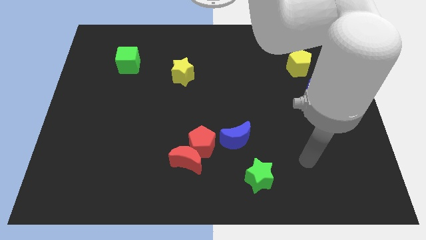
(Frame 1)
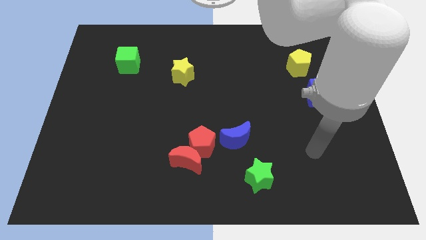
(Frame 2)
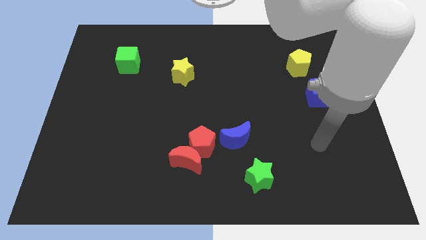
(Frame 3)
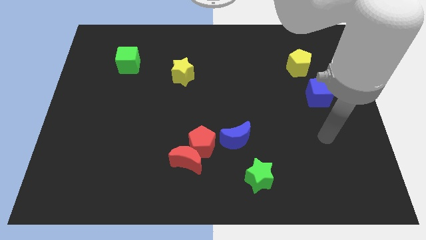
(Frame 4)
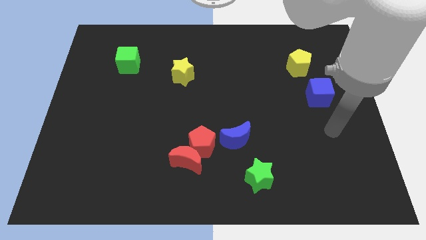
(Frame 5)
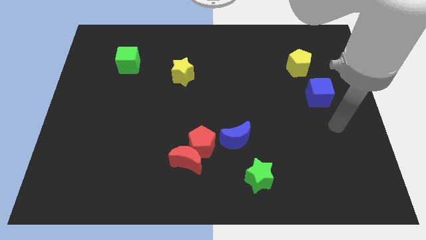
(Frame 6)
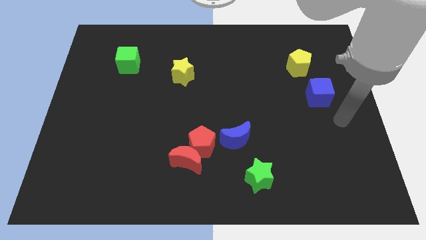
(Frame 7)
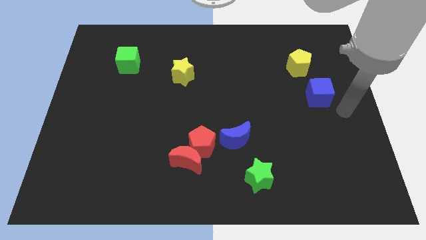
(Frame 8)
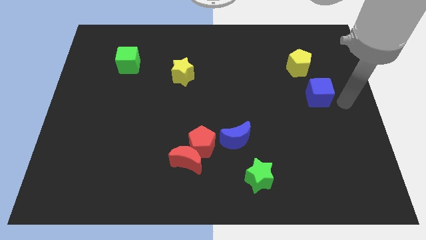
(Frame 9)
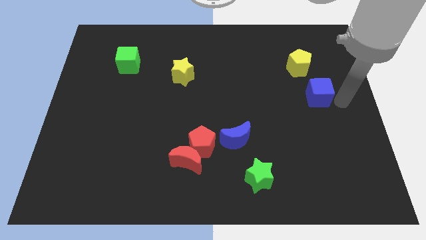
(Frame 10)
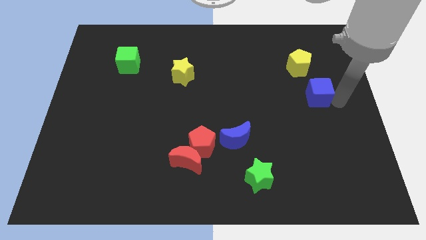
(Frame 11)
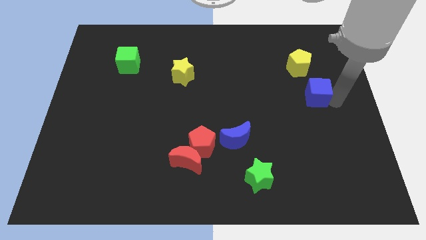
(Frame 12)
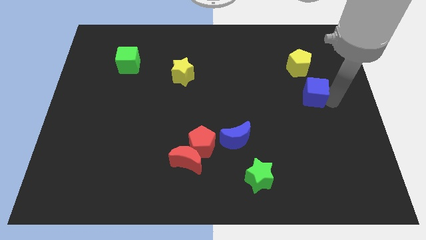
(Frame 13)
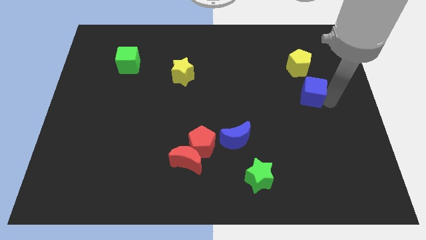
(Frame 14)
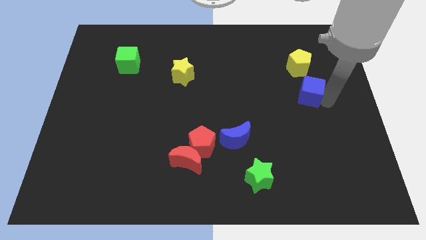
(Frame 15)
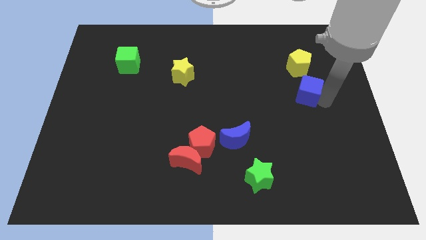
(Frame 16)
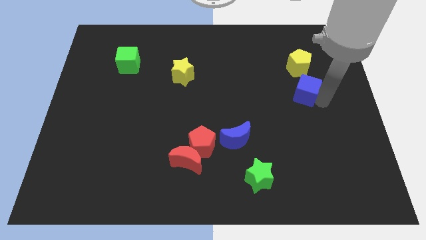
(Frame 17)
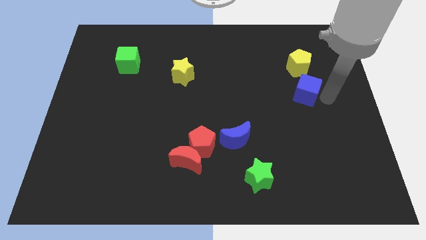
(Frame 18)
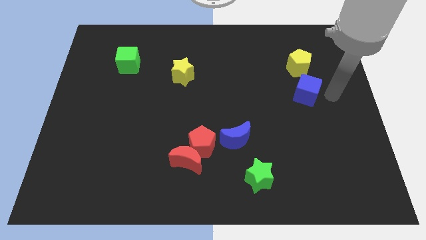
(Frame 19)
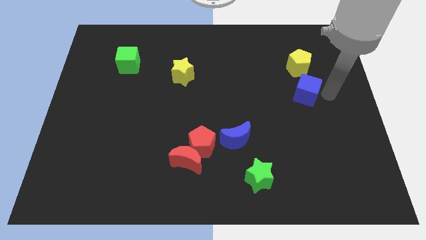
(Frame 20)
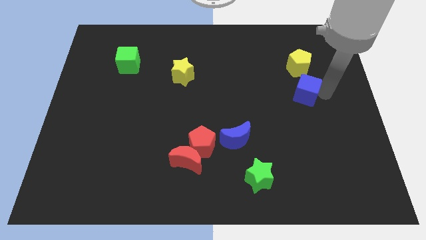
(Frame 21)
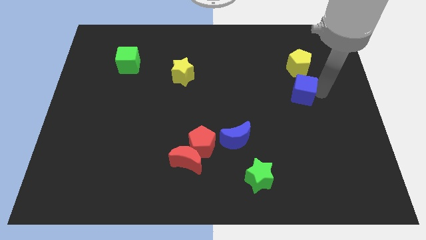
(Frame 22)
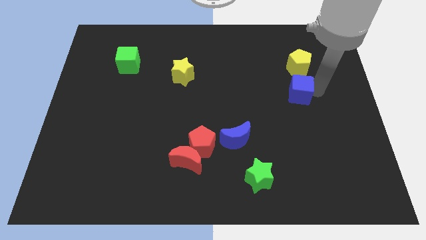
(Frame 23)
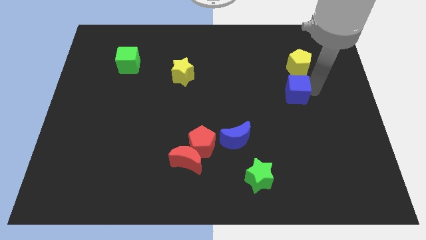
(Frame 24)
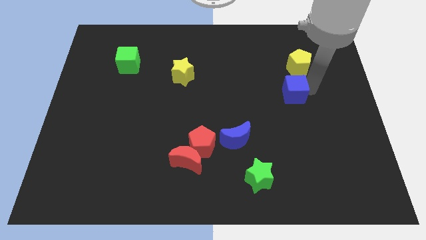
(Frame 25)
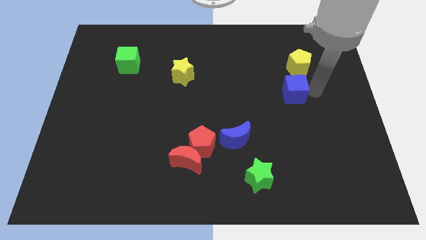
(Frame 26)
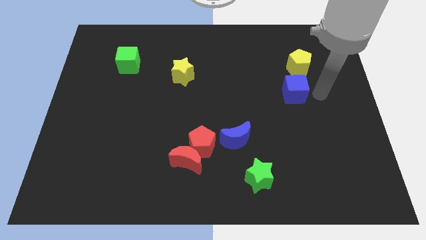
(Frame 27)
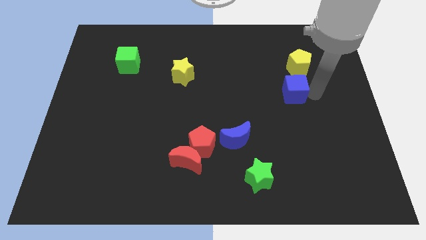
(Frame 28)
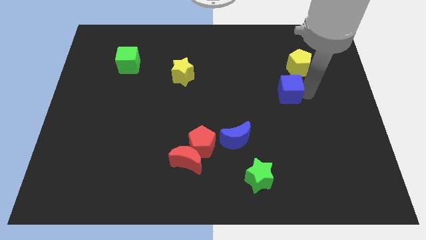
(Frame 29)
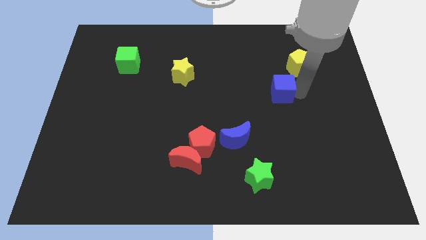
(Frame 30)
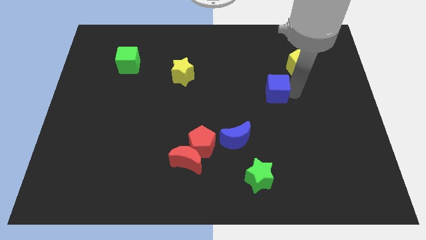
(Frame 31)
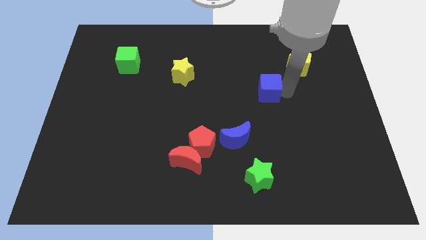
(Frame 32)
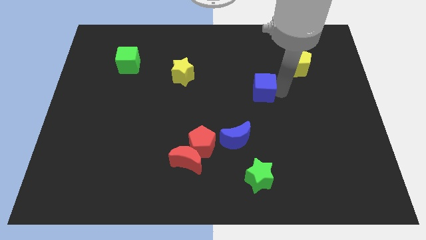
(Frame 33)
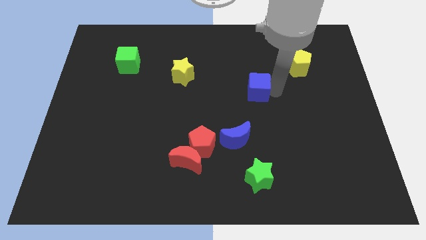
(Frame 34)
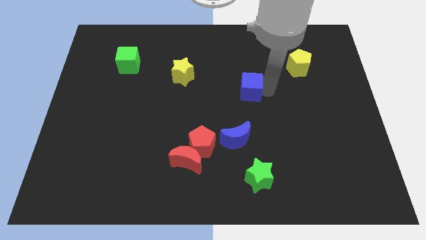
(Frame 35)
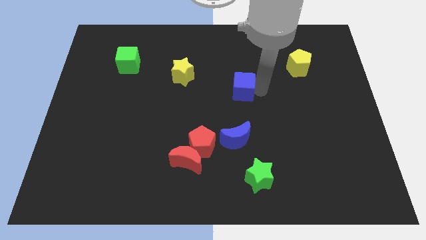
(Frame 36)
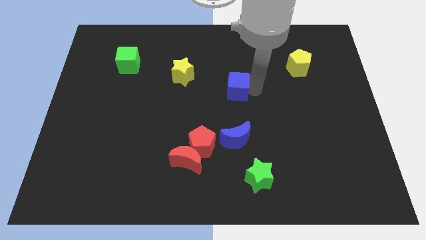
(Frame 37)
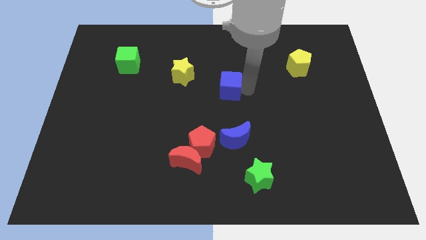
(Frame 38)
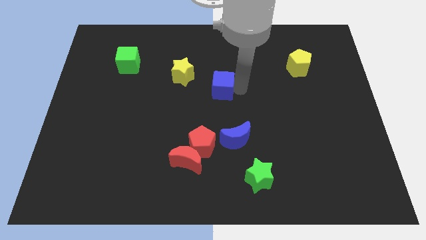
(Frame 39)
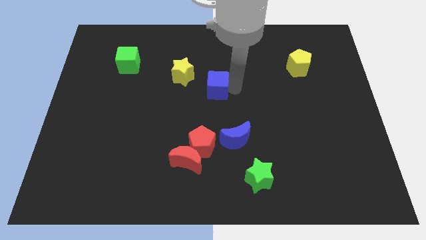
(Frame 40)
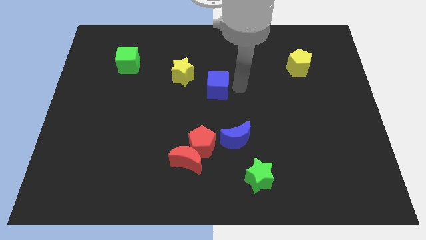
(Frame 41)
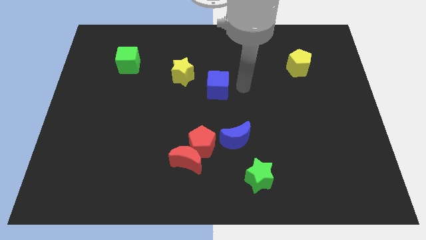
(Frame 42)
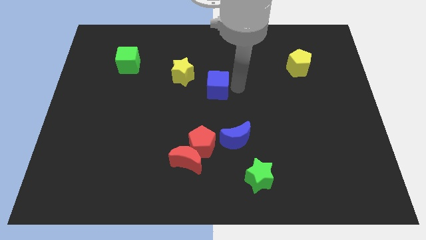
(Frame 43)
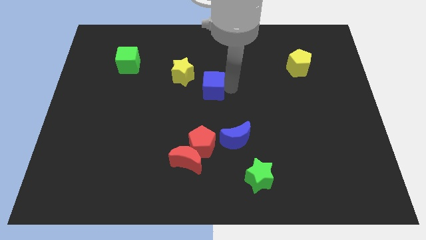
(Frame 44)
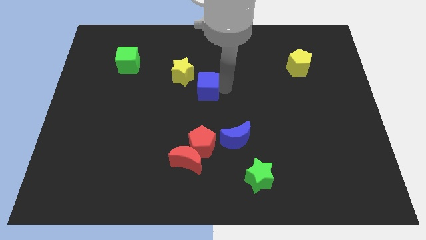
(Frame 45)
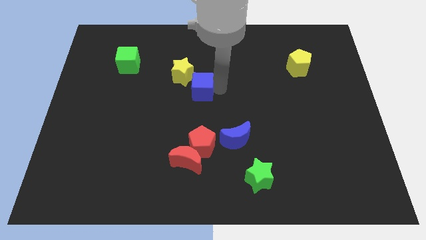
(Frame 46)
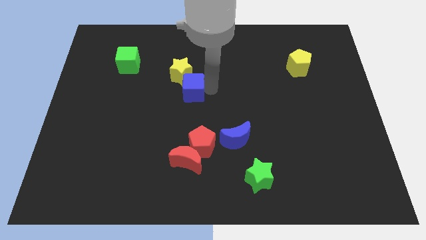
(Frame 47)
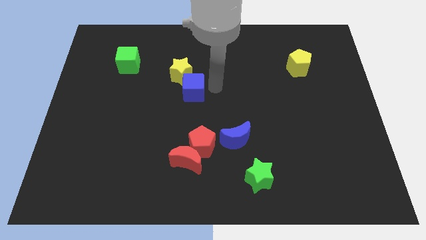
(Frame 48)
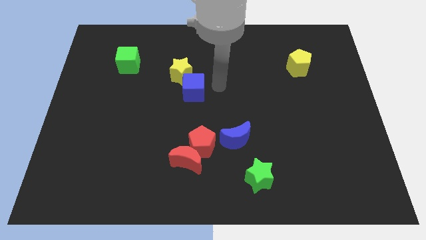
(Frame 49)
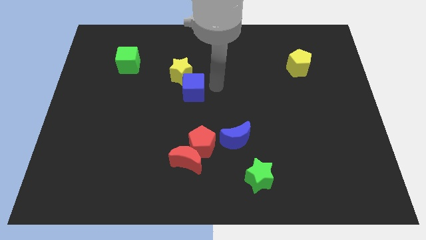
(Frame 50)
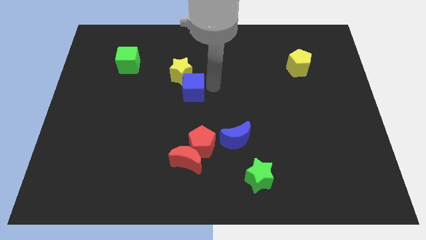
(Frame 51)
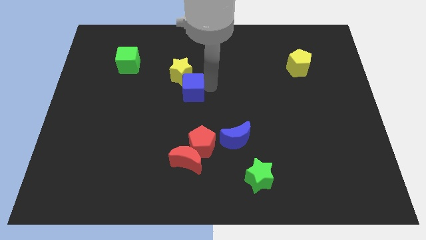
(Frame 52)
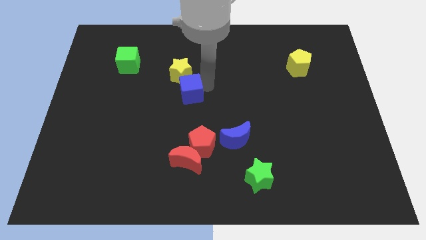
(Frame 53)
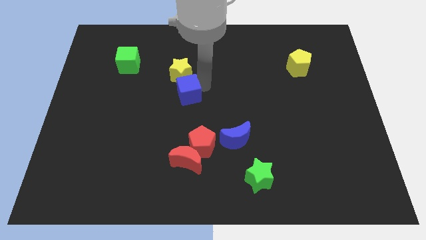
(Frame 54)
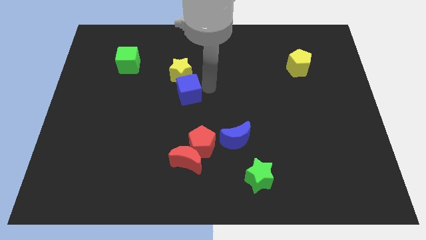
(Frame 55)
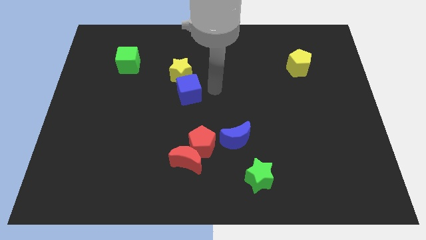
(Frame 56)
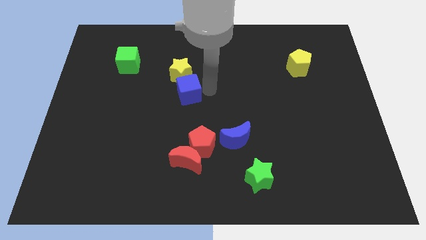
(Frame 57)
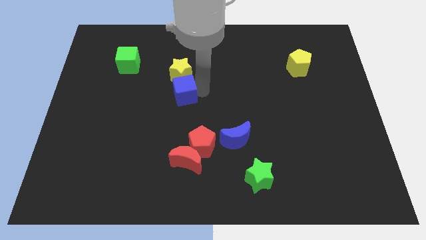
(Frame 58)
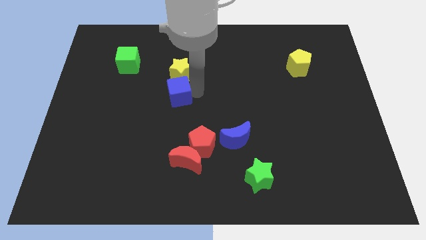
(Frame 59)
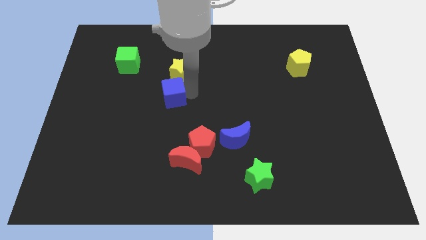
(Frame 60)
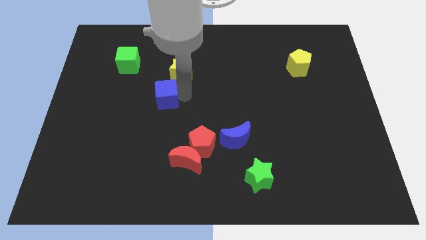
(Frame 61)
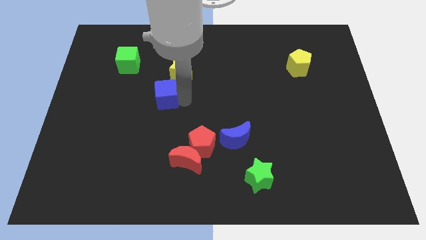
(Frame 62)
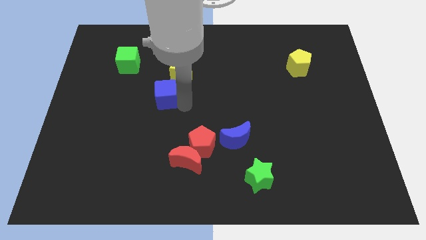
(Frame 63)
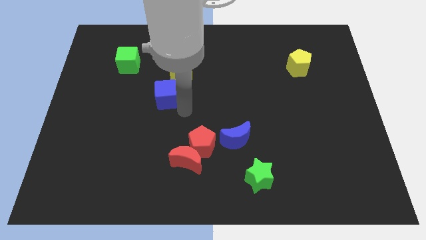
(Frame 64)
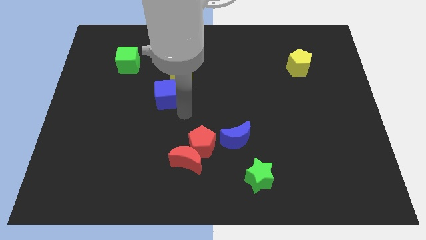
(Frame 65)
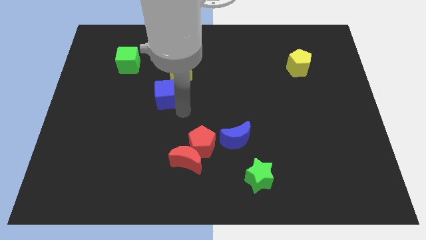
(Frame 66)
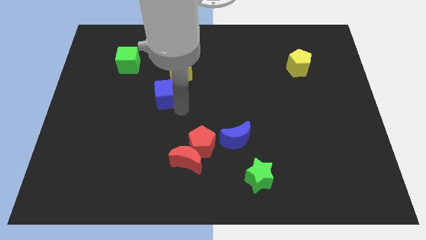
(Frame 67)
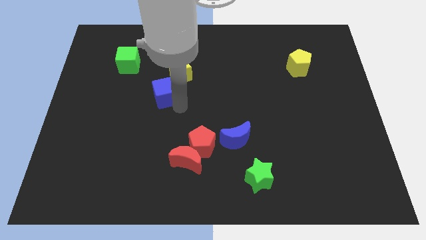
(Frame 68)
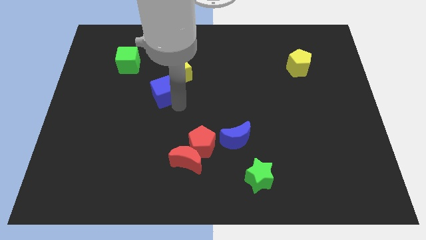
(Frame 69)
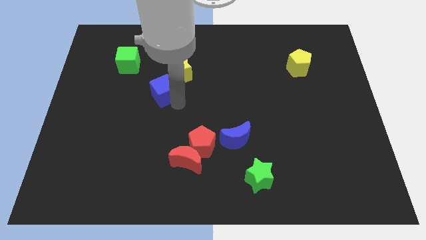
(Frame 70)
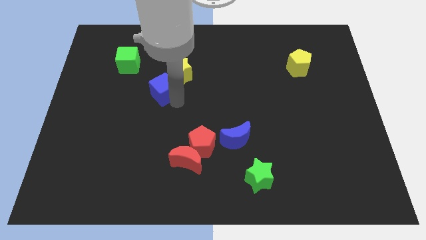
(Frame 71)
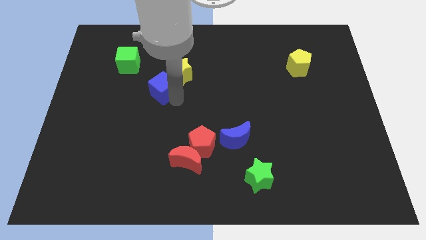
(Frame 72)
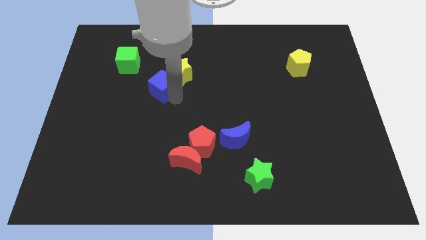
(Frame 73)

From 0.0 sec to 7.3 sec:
slide the blue cube just left of the yellow star

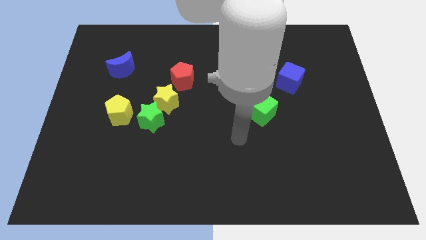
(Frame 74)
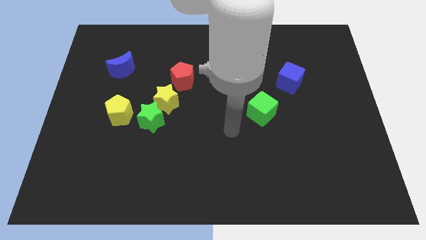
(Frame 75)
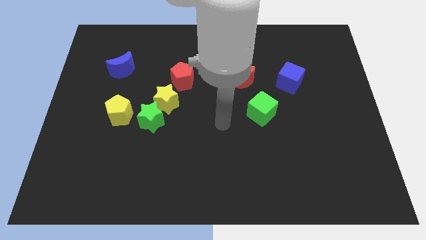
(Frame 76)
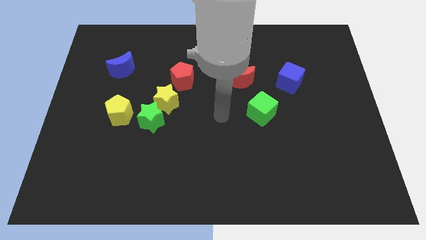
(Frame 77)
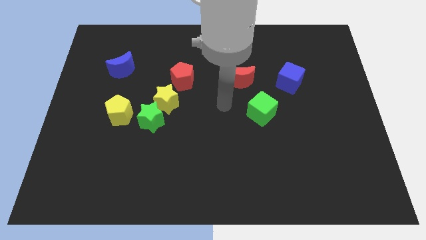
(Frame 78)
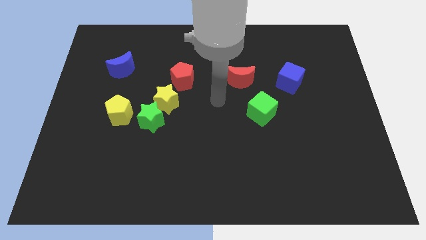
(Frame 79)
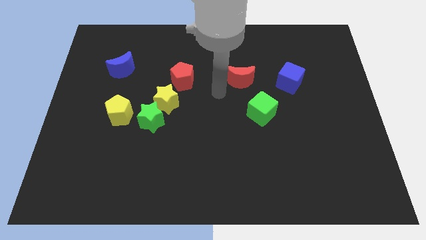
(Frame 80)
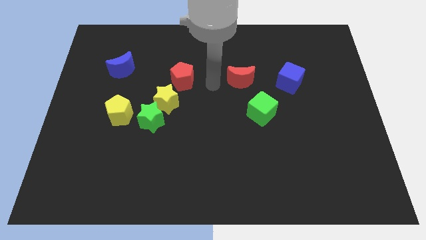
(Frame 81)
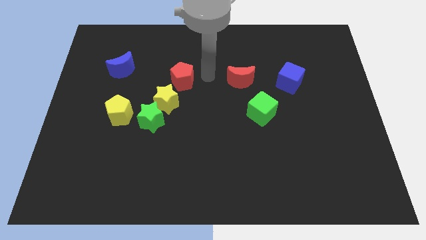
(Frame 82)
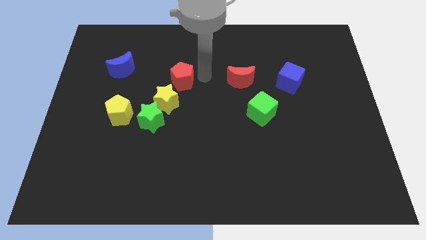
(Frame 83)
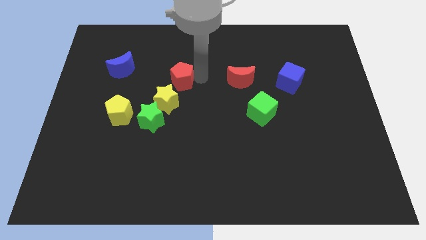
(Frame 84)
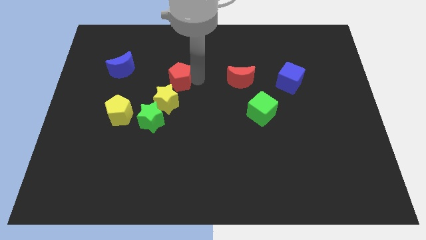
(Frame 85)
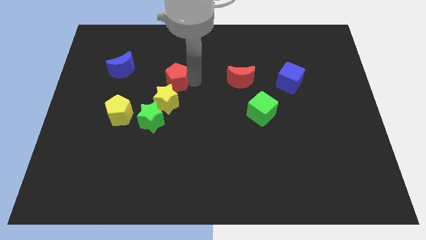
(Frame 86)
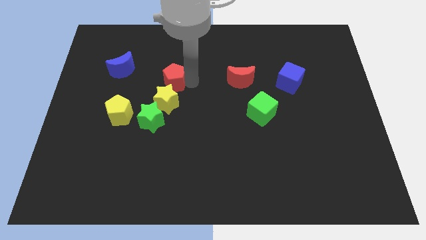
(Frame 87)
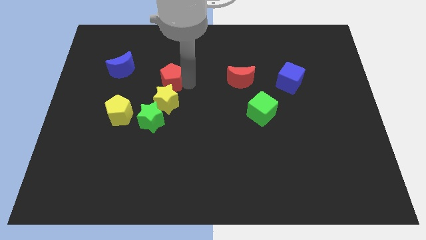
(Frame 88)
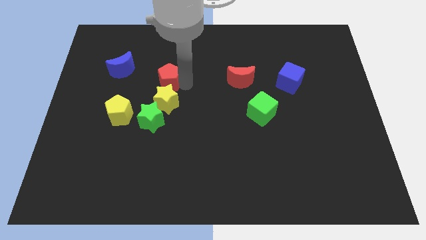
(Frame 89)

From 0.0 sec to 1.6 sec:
move the red pentagon diagonally up and to the left of the yellow star
